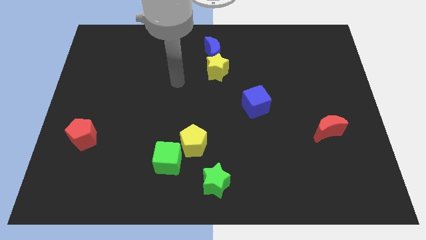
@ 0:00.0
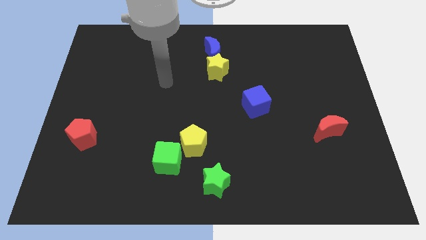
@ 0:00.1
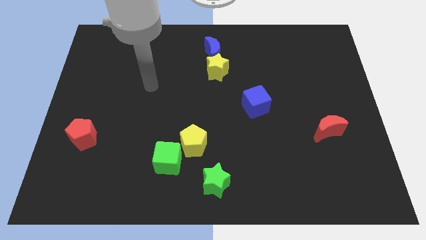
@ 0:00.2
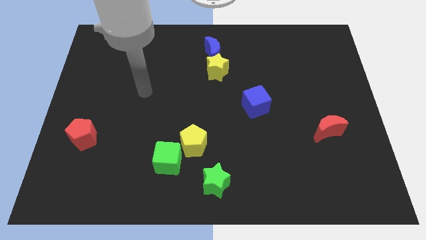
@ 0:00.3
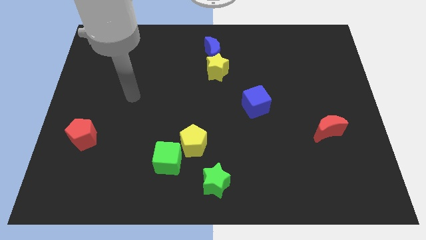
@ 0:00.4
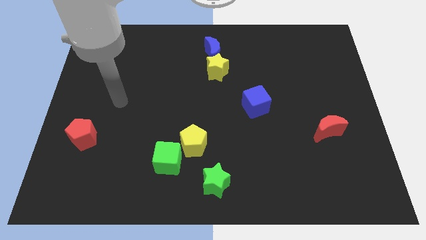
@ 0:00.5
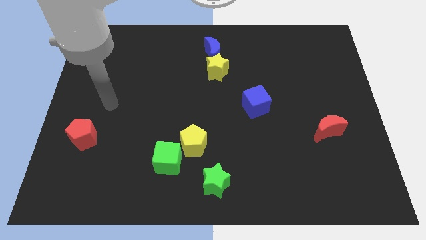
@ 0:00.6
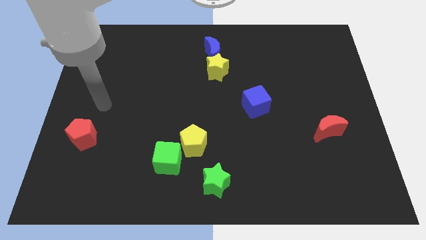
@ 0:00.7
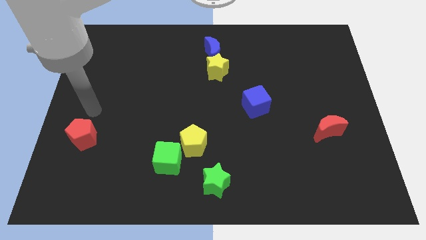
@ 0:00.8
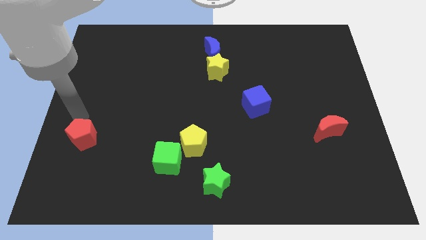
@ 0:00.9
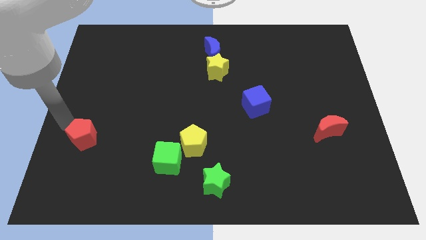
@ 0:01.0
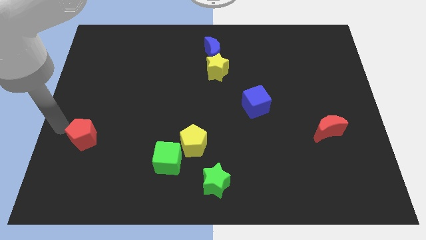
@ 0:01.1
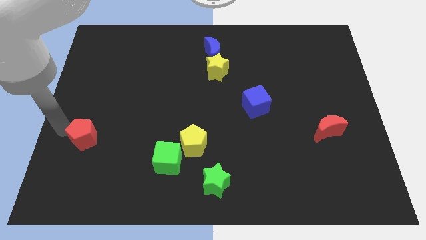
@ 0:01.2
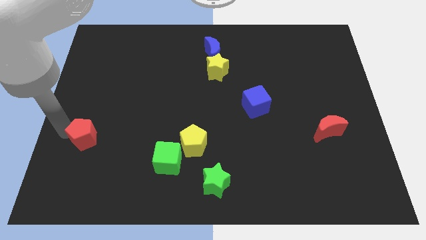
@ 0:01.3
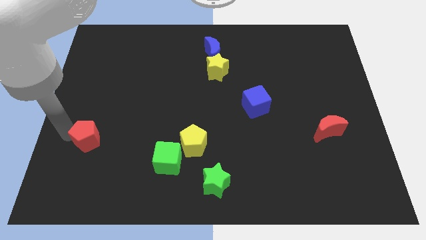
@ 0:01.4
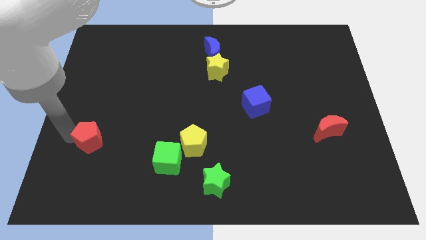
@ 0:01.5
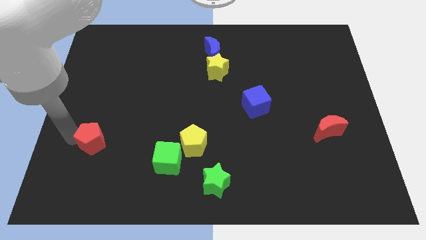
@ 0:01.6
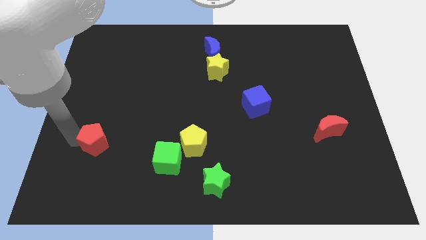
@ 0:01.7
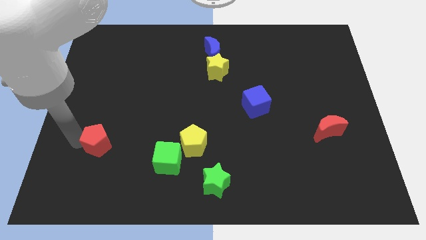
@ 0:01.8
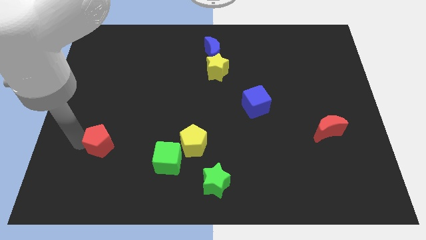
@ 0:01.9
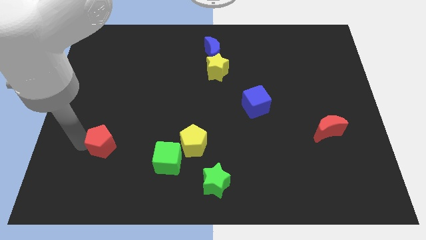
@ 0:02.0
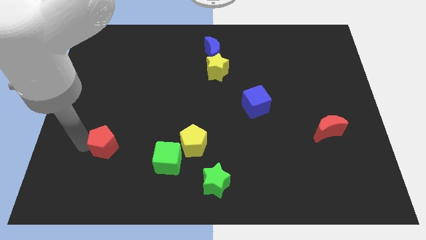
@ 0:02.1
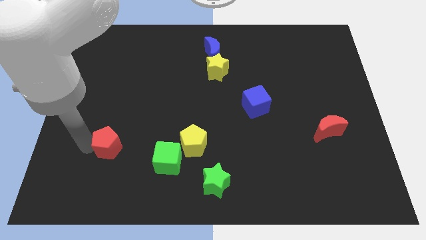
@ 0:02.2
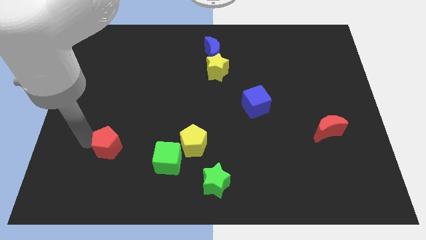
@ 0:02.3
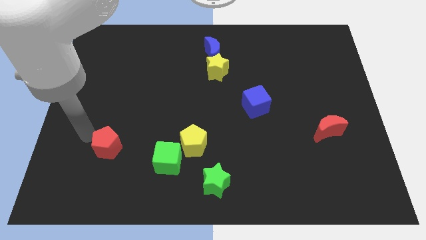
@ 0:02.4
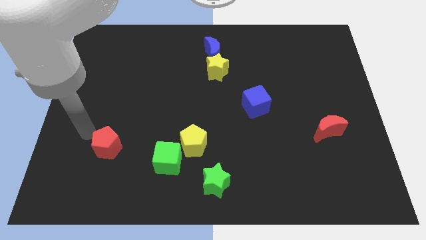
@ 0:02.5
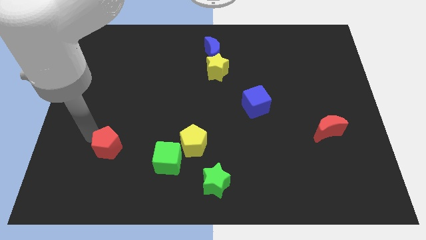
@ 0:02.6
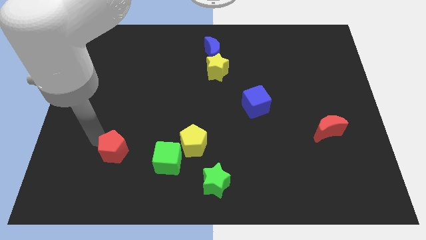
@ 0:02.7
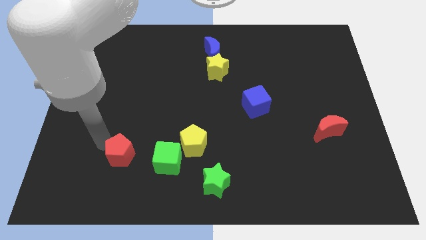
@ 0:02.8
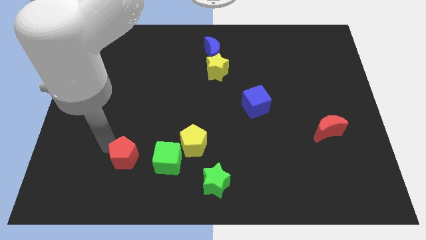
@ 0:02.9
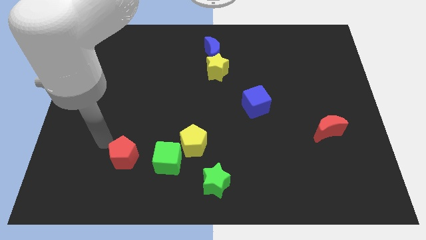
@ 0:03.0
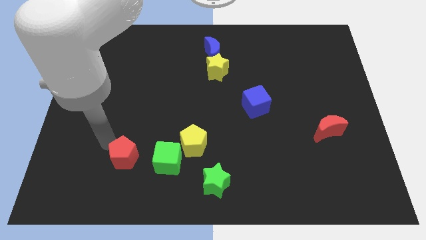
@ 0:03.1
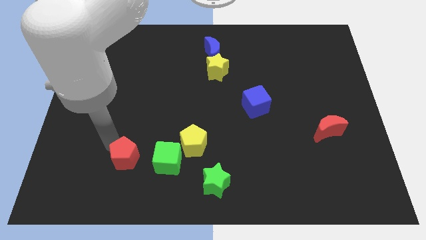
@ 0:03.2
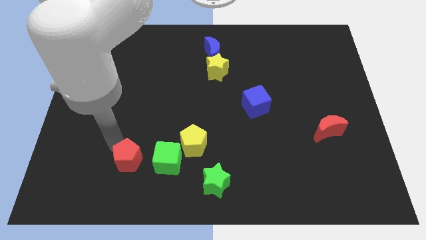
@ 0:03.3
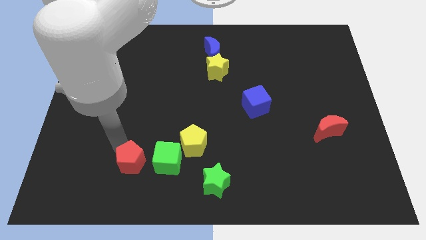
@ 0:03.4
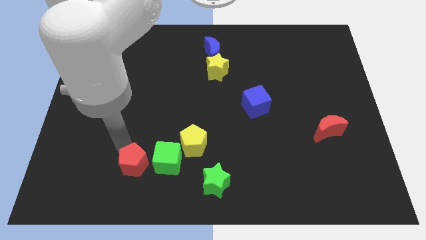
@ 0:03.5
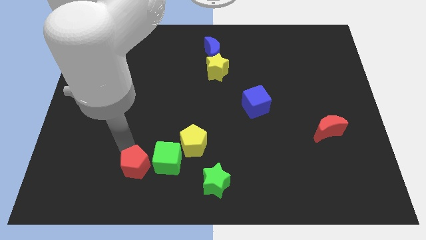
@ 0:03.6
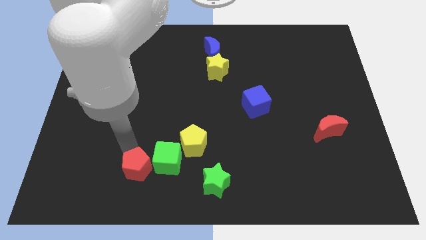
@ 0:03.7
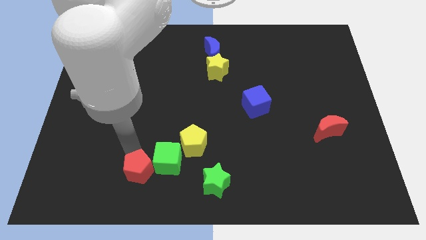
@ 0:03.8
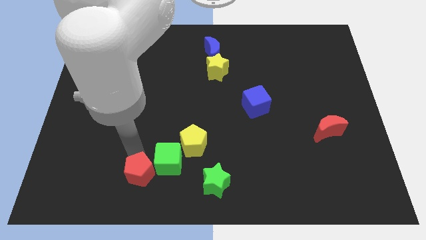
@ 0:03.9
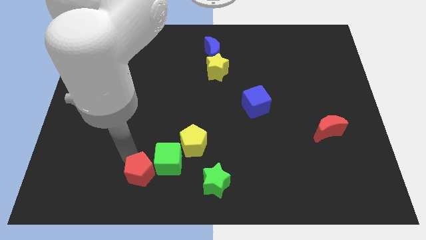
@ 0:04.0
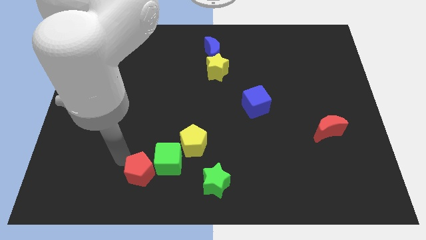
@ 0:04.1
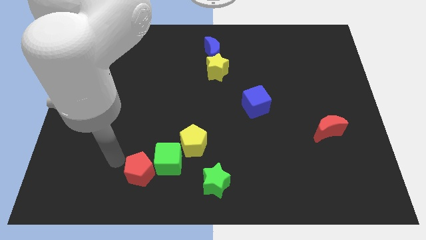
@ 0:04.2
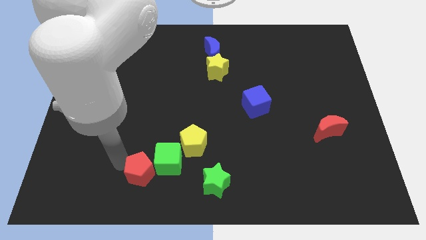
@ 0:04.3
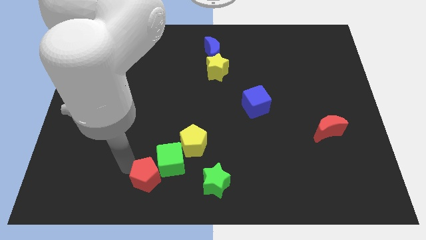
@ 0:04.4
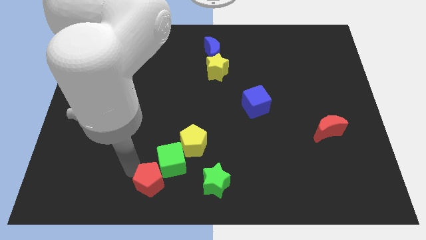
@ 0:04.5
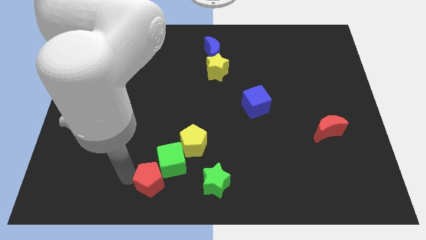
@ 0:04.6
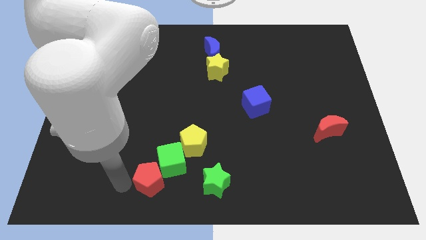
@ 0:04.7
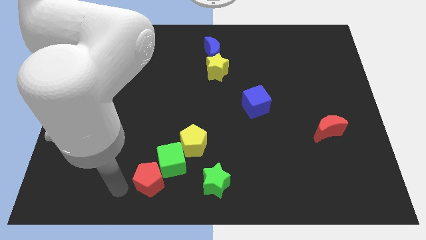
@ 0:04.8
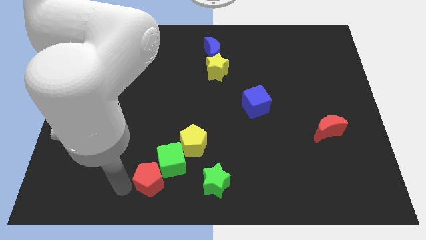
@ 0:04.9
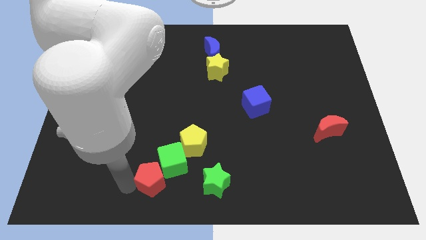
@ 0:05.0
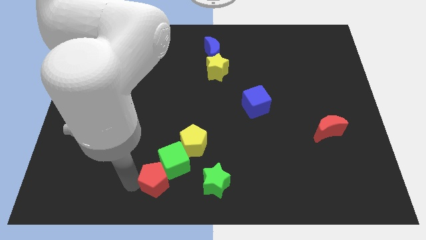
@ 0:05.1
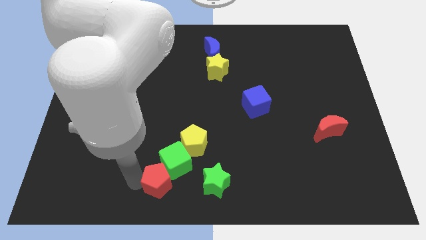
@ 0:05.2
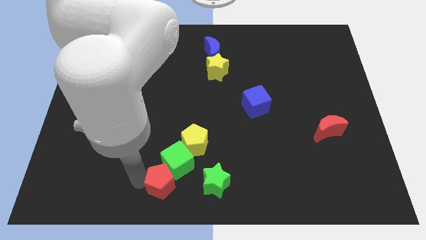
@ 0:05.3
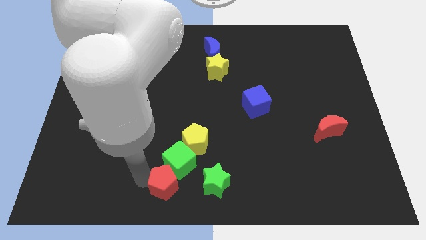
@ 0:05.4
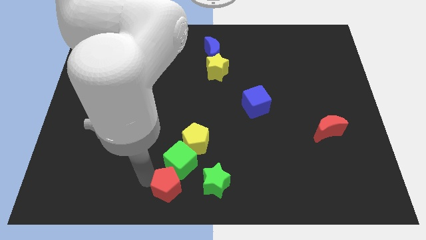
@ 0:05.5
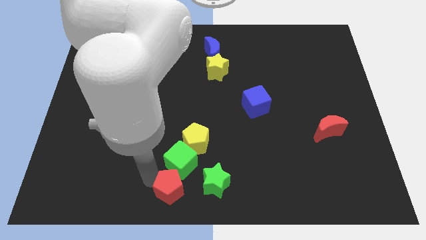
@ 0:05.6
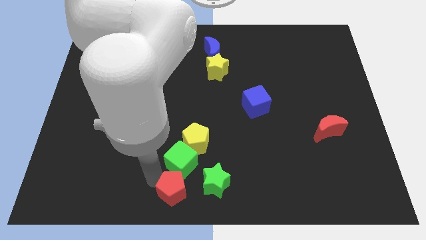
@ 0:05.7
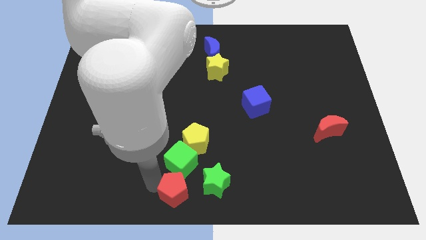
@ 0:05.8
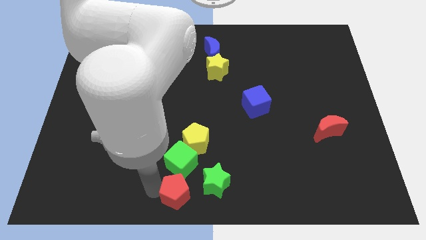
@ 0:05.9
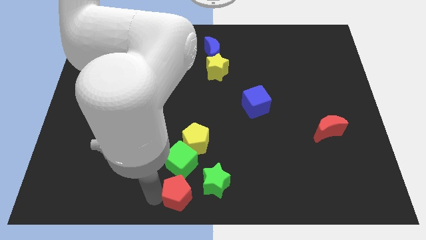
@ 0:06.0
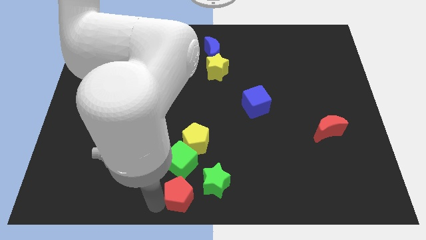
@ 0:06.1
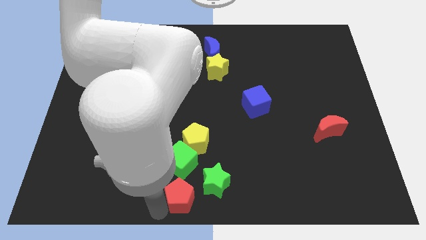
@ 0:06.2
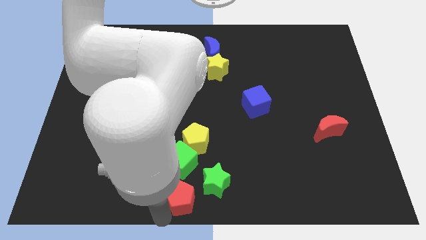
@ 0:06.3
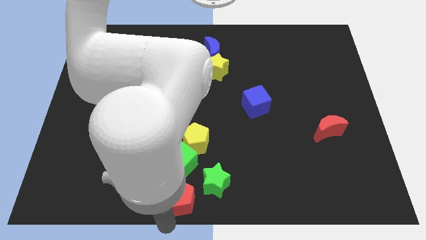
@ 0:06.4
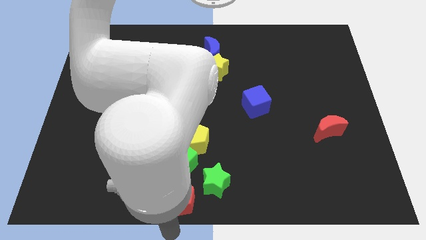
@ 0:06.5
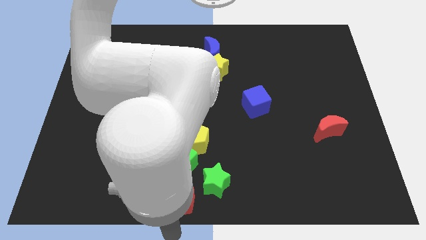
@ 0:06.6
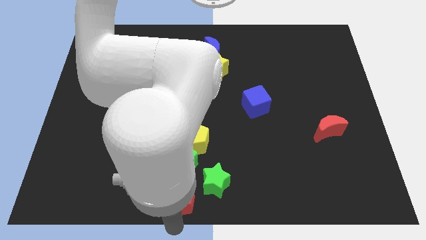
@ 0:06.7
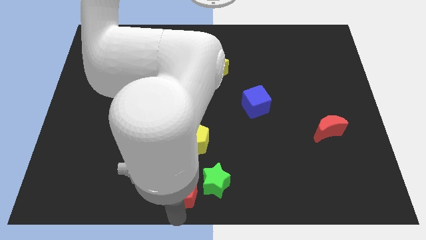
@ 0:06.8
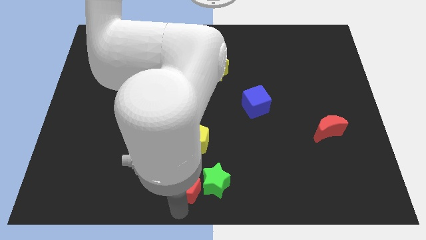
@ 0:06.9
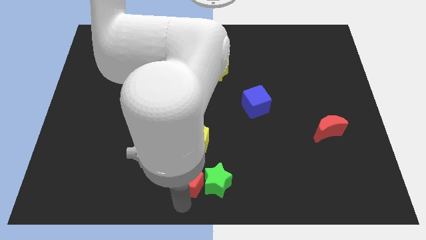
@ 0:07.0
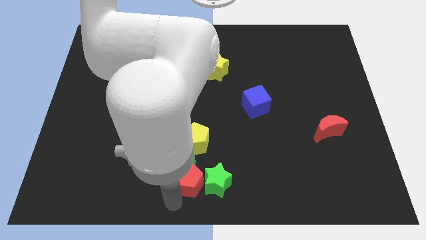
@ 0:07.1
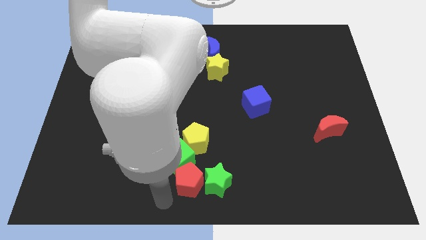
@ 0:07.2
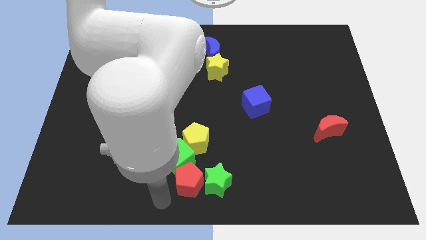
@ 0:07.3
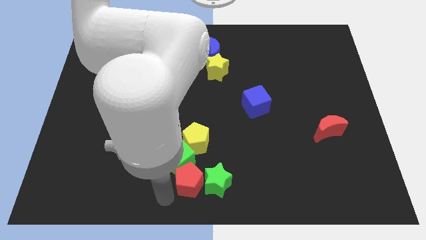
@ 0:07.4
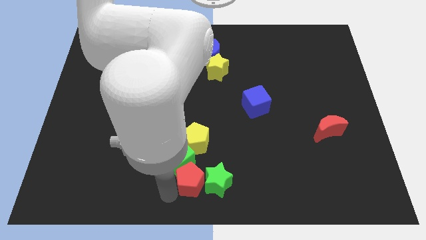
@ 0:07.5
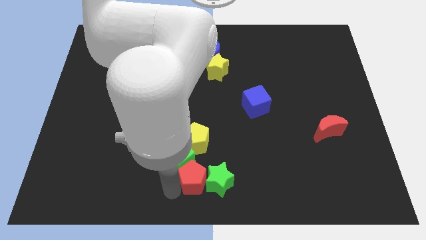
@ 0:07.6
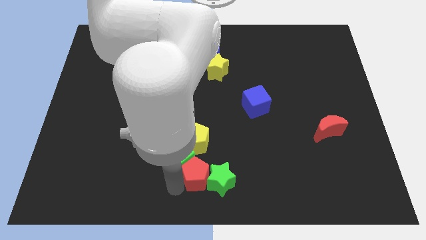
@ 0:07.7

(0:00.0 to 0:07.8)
move the red pentagon right of the green cube
